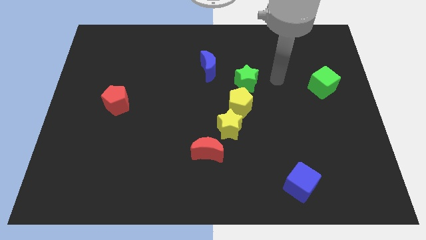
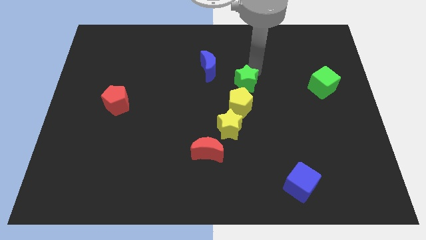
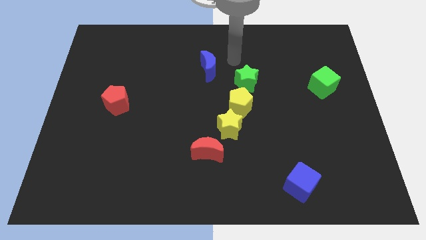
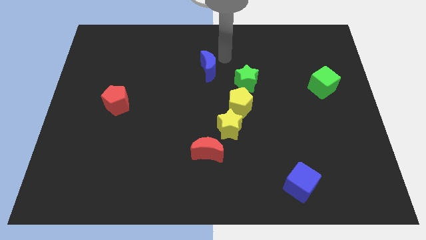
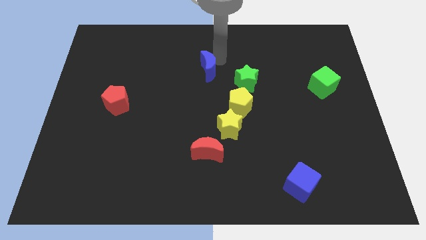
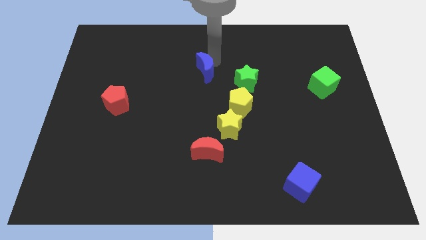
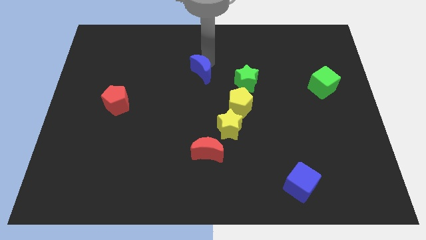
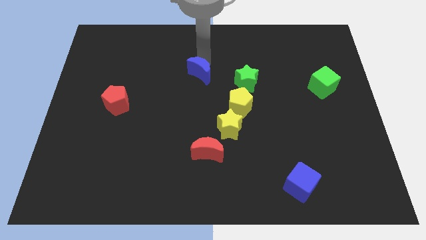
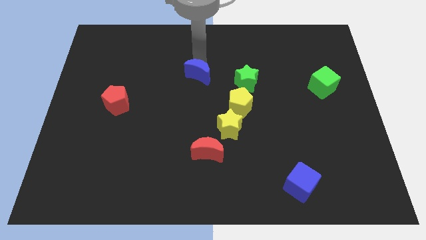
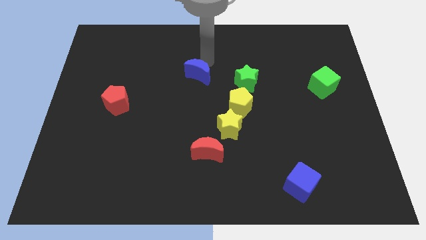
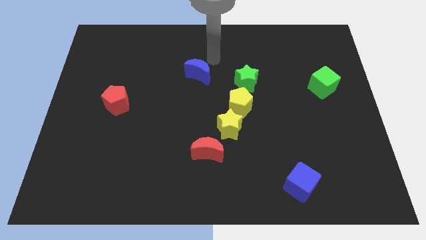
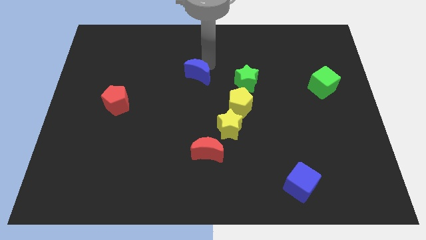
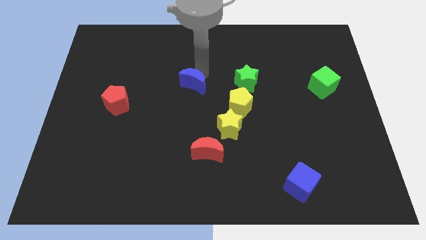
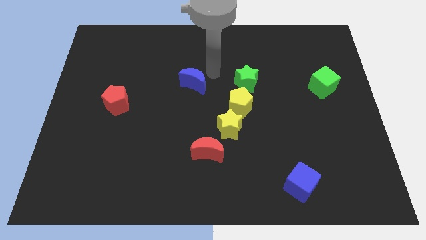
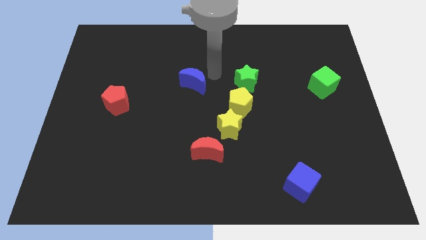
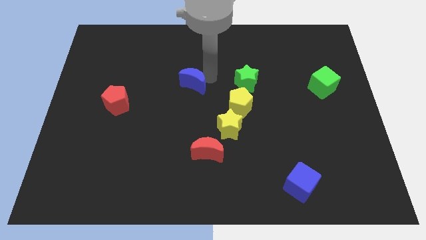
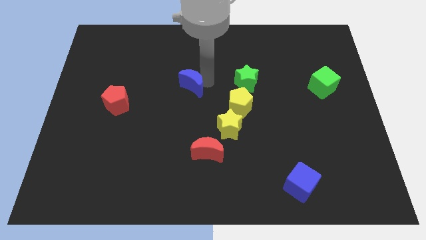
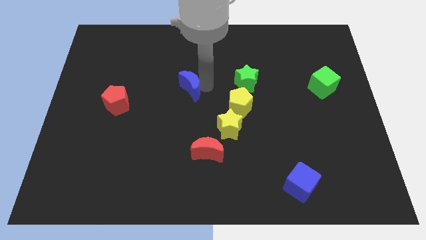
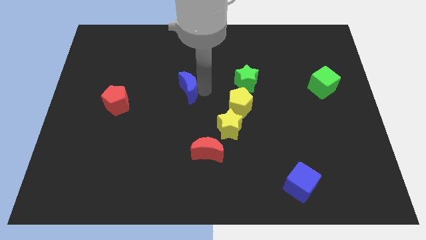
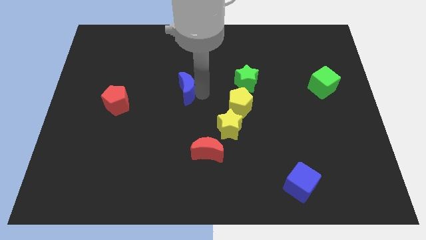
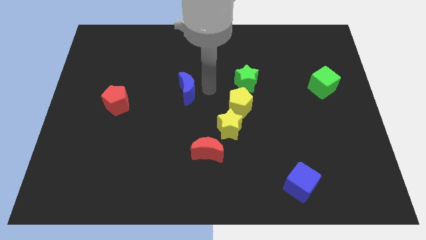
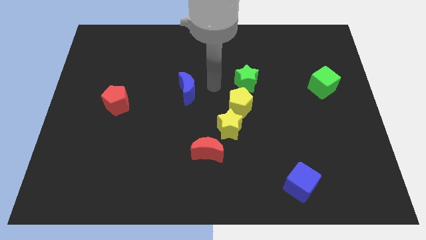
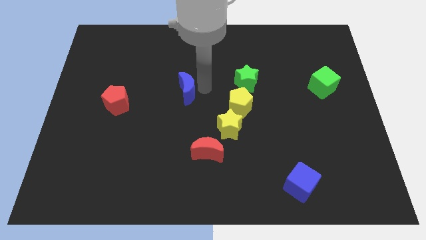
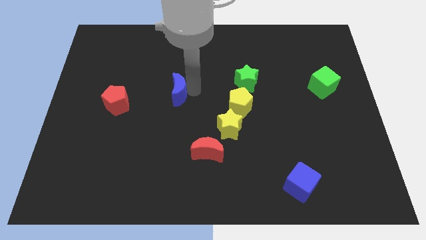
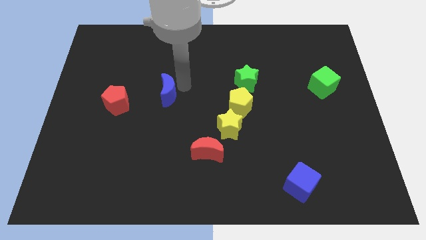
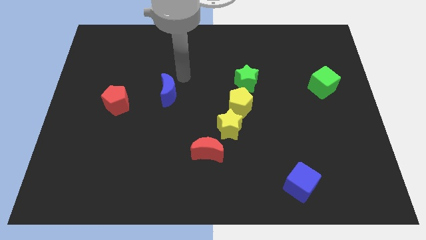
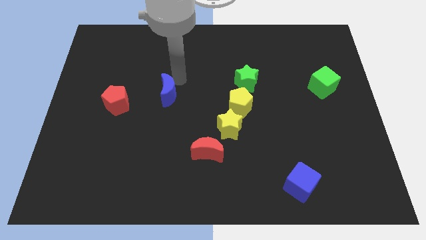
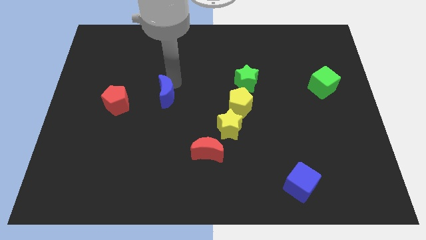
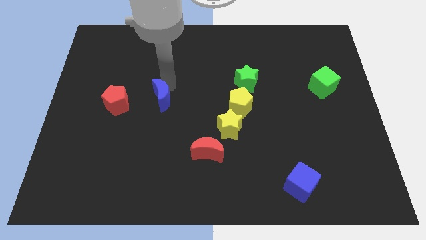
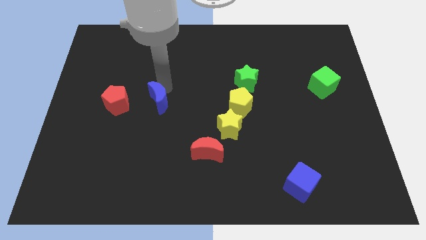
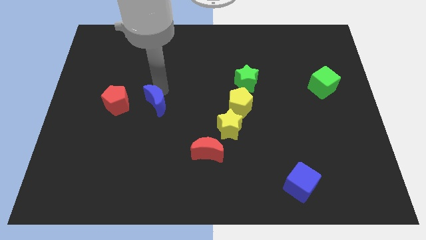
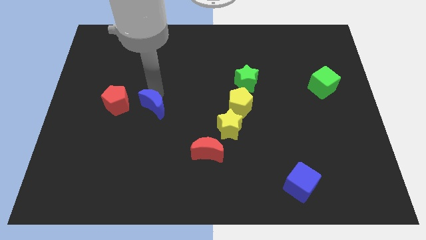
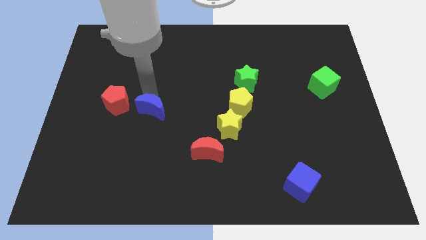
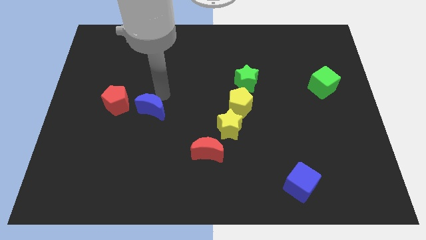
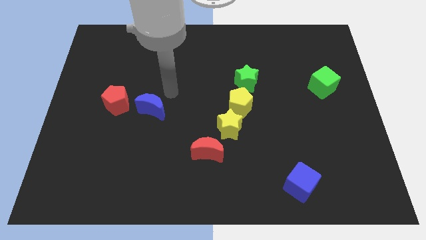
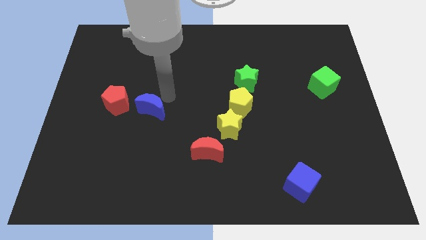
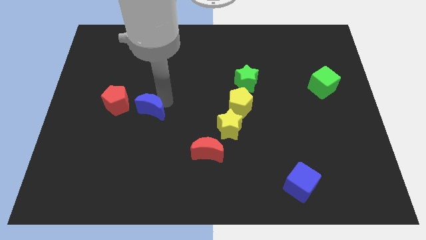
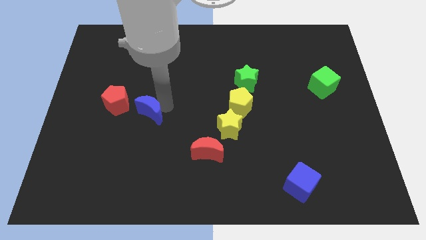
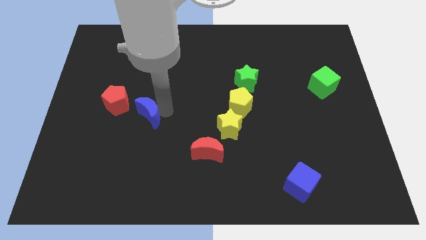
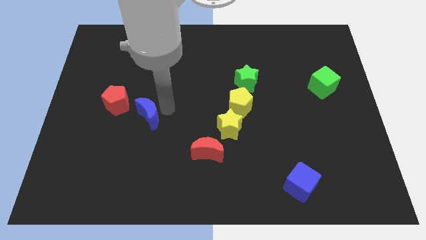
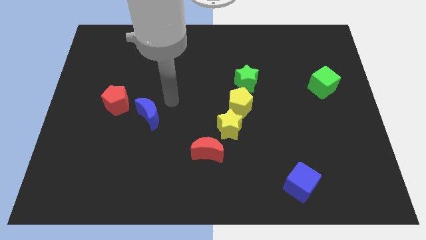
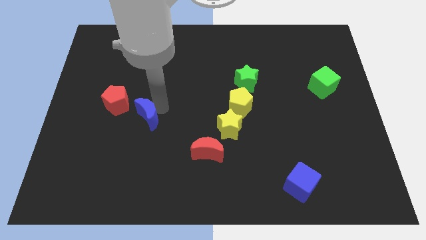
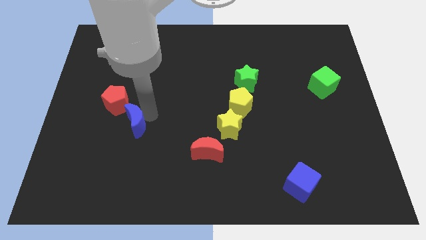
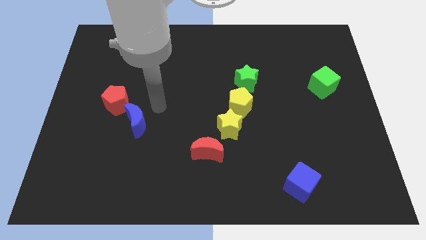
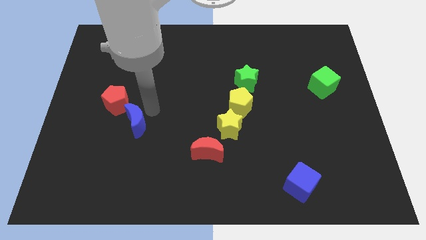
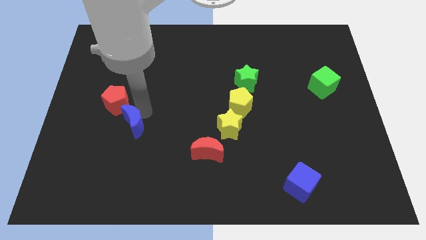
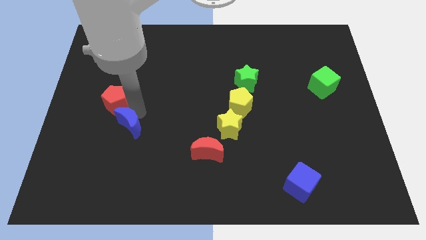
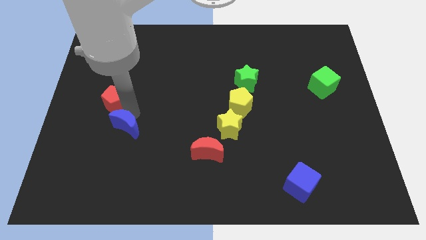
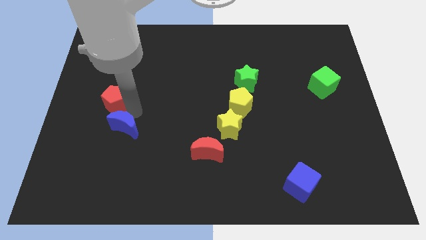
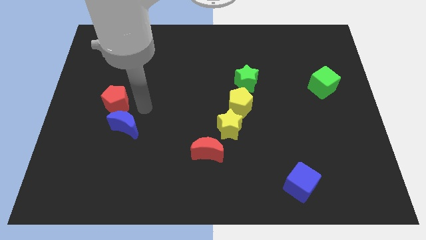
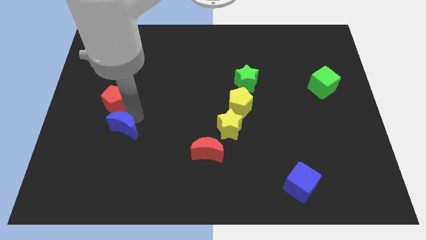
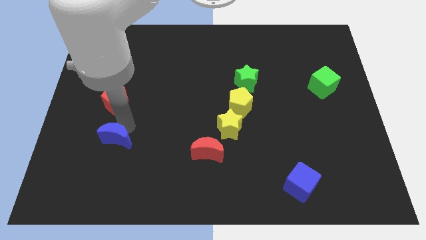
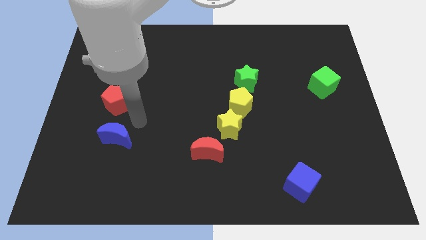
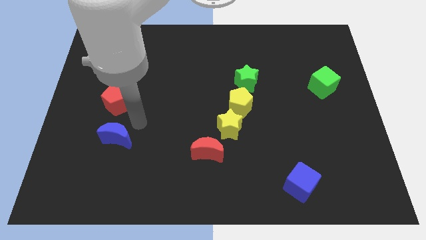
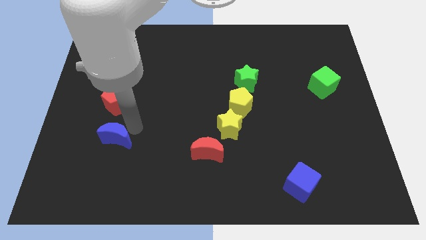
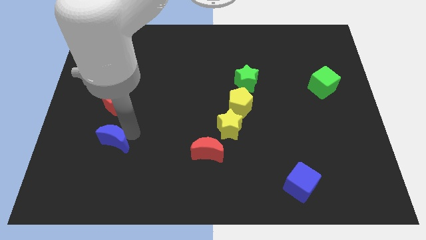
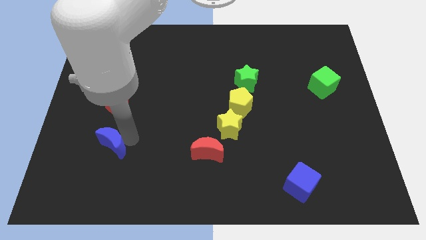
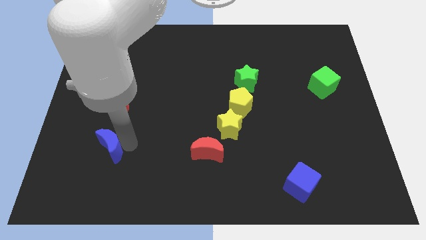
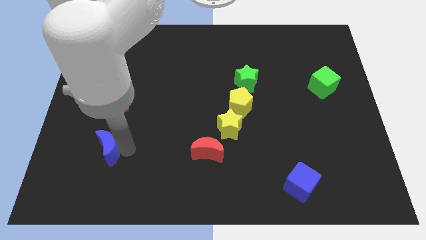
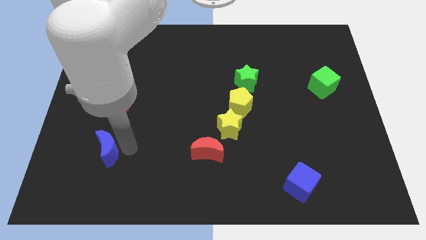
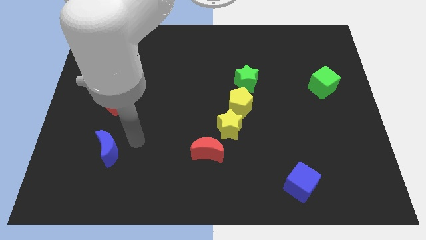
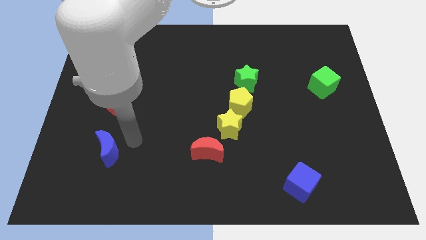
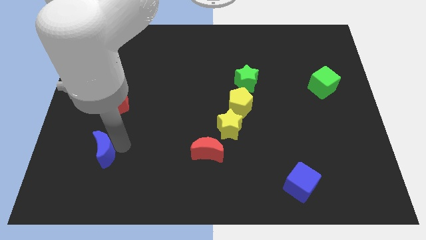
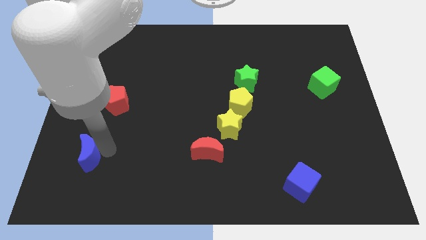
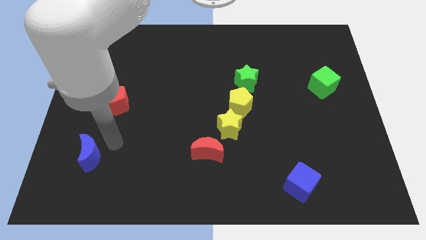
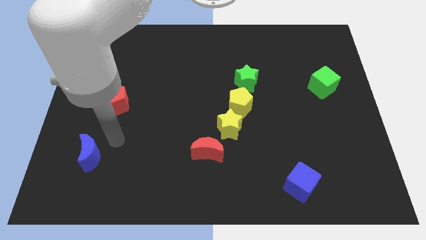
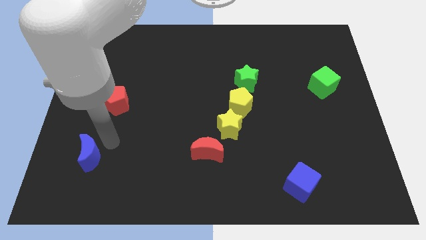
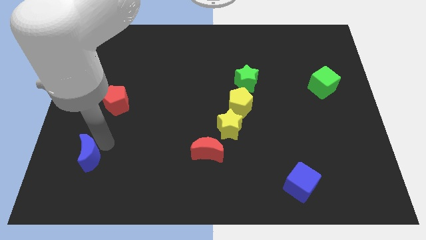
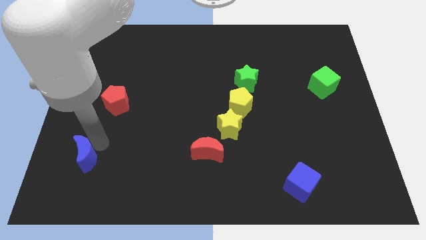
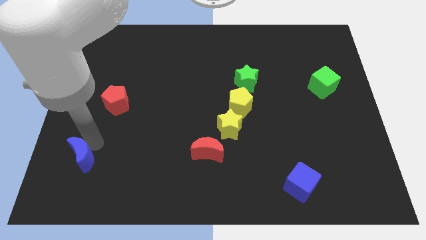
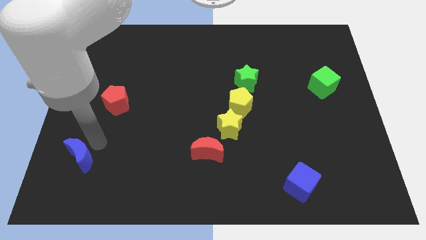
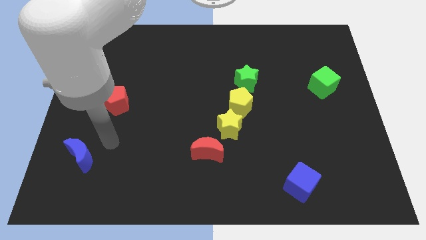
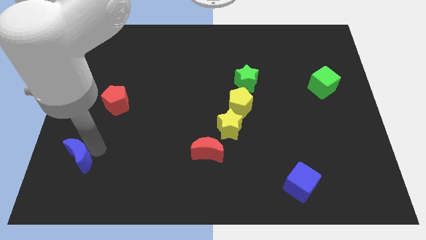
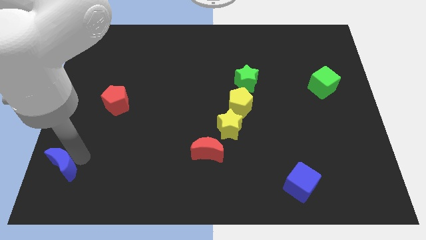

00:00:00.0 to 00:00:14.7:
put the blue moon to the lower left corner
